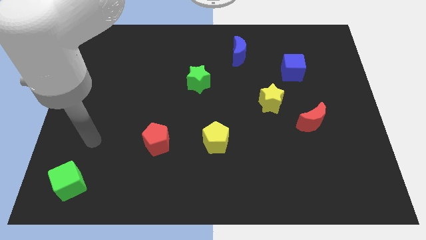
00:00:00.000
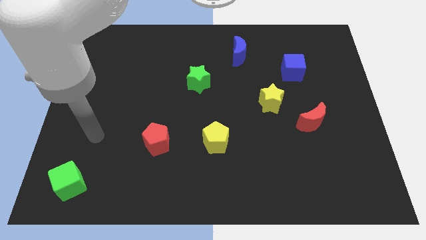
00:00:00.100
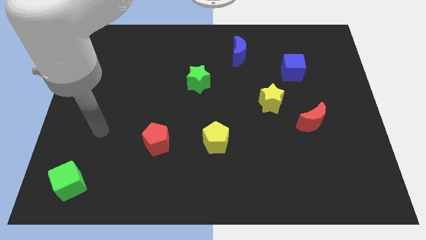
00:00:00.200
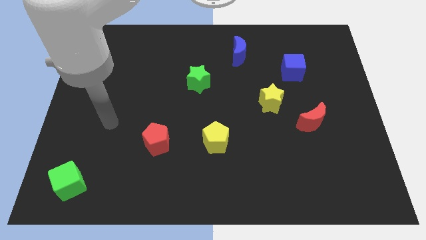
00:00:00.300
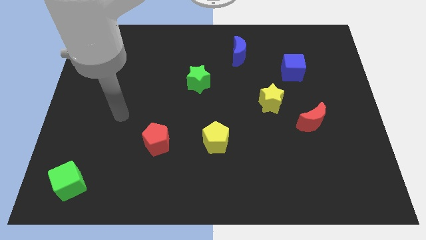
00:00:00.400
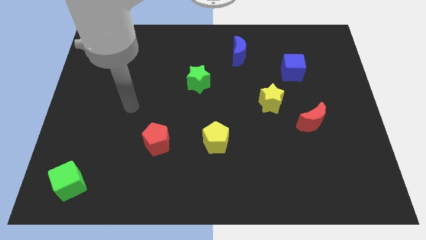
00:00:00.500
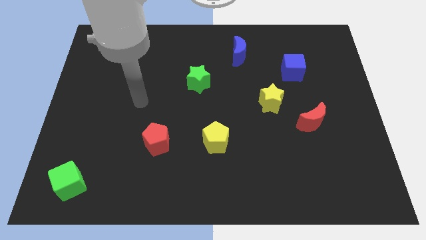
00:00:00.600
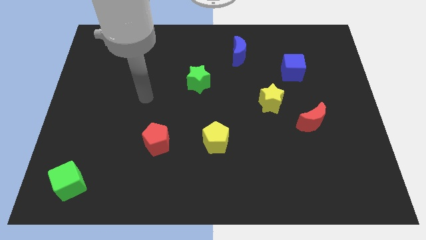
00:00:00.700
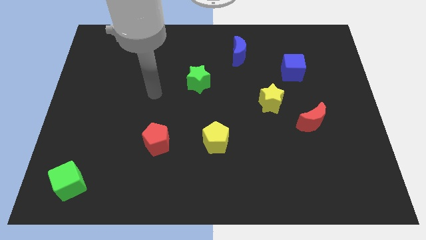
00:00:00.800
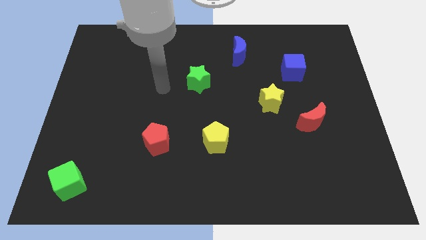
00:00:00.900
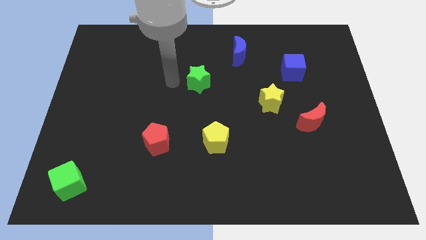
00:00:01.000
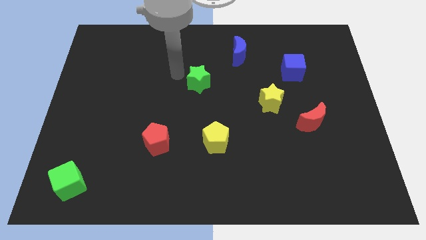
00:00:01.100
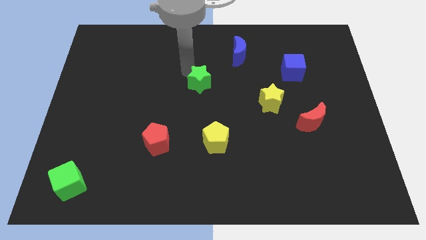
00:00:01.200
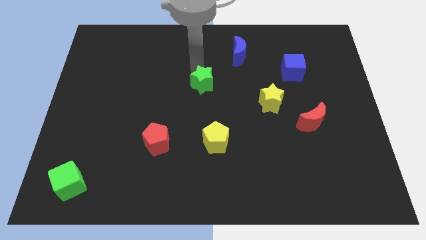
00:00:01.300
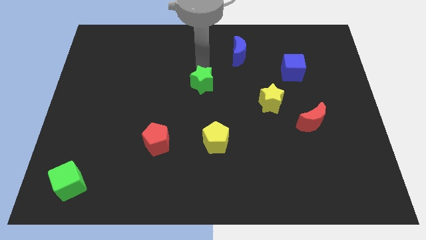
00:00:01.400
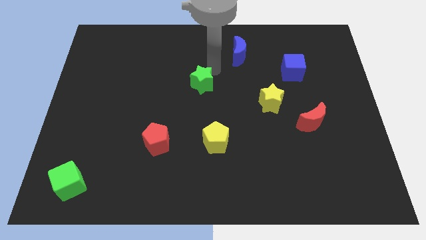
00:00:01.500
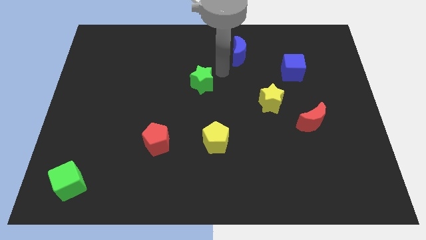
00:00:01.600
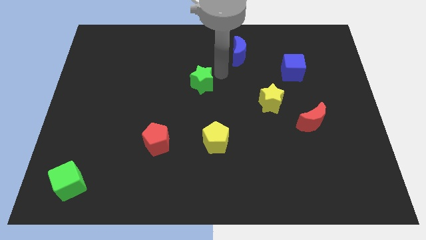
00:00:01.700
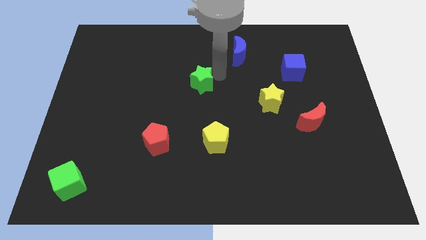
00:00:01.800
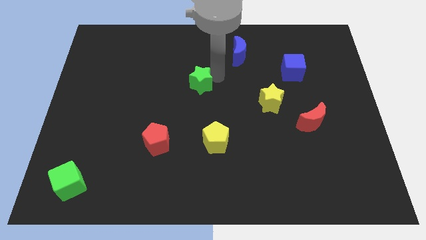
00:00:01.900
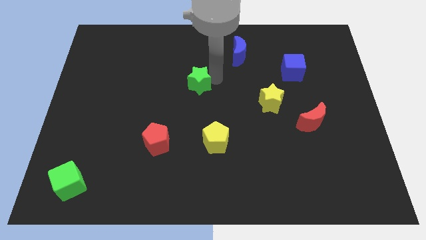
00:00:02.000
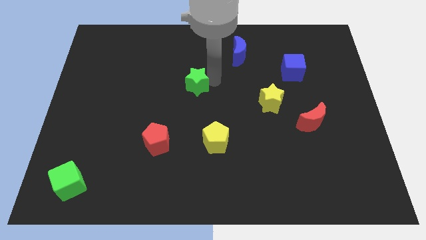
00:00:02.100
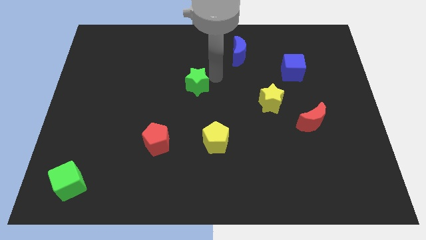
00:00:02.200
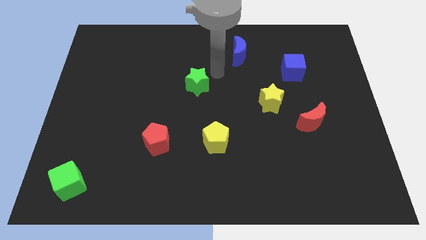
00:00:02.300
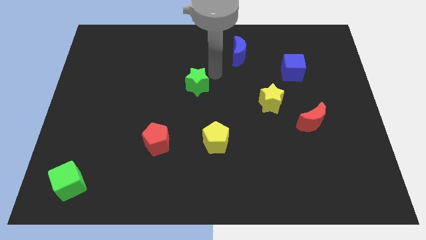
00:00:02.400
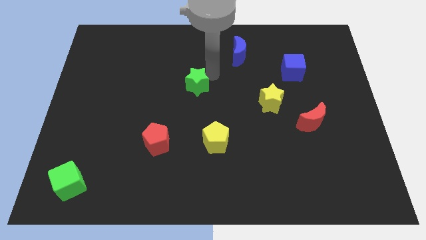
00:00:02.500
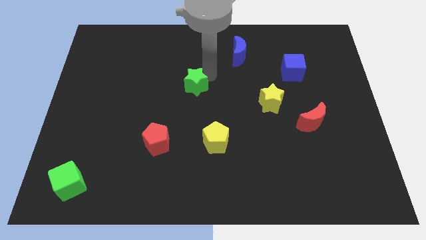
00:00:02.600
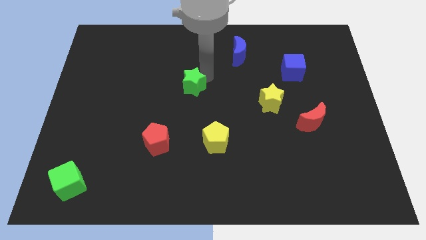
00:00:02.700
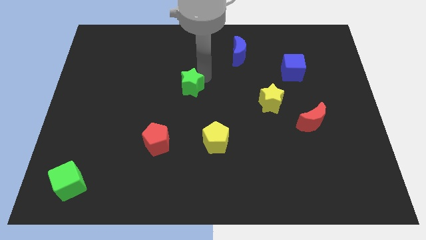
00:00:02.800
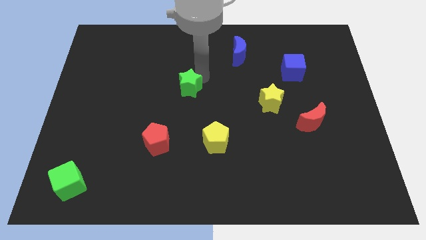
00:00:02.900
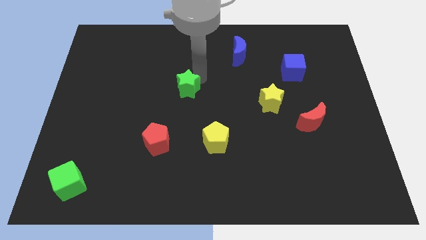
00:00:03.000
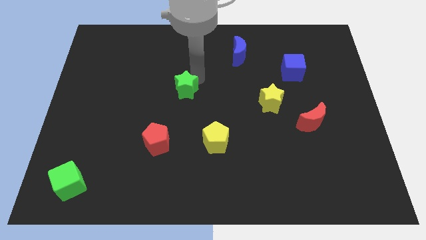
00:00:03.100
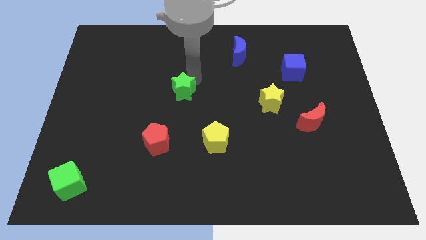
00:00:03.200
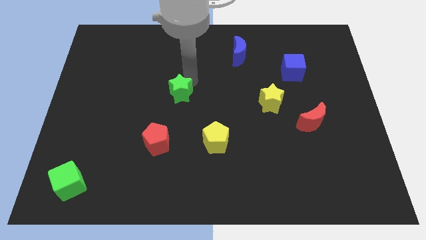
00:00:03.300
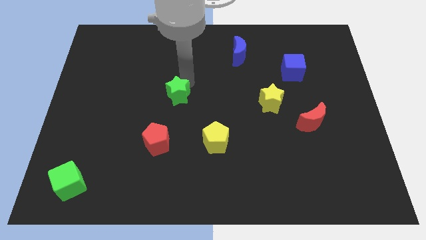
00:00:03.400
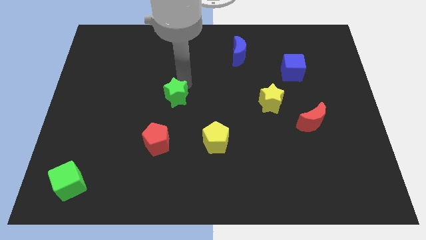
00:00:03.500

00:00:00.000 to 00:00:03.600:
slide the green star diagonally downwards and to the left a little bit

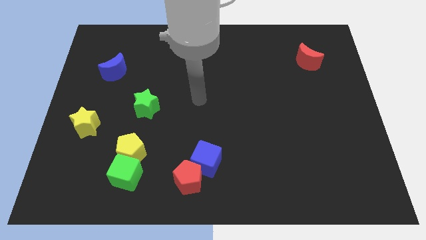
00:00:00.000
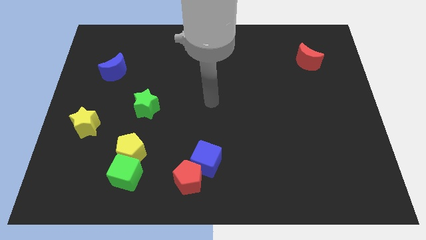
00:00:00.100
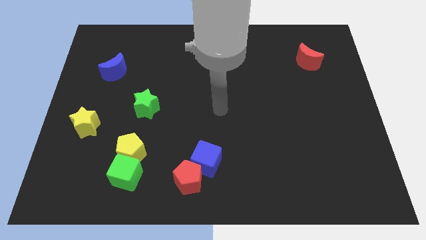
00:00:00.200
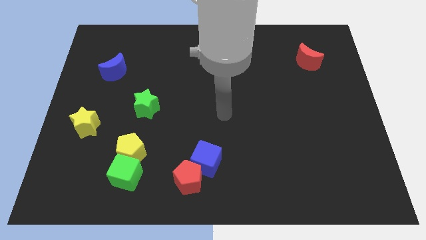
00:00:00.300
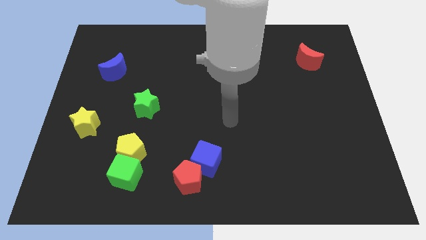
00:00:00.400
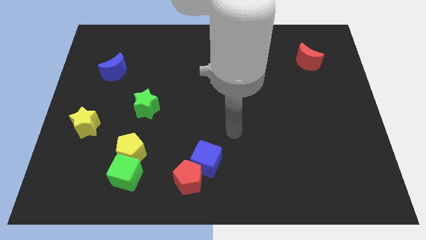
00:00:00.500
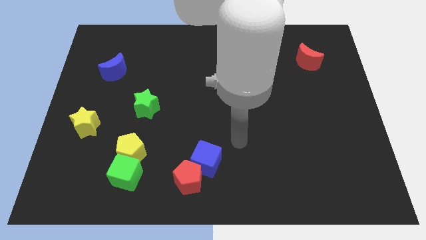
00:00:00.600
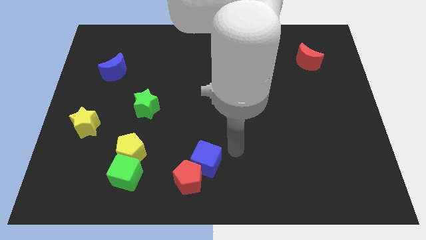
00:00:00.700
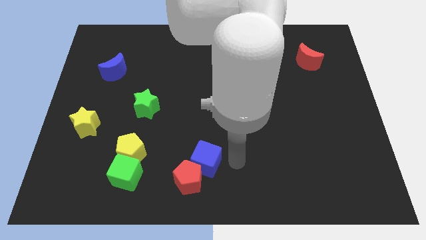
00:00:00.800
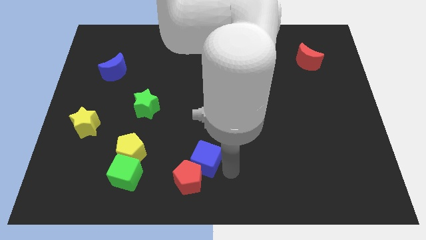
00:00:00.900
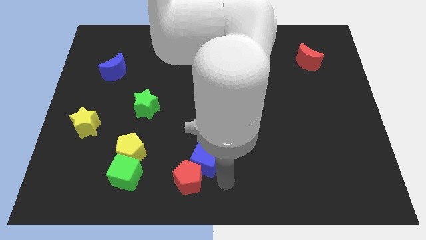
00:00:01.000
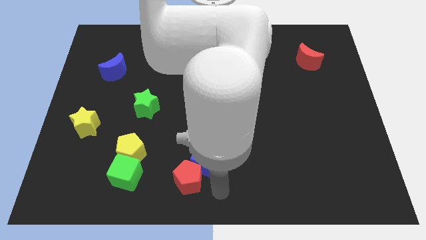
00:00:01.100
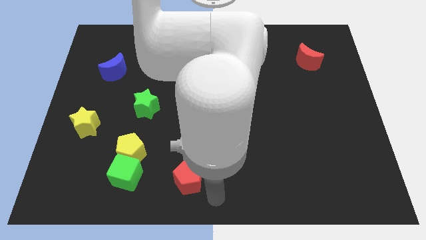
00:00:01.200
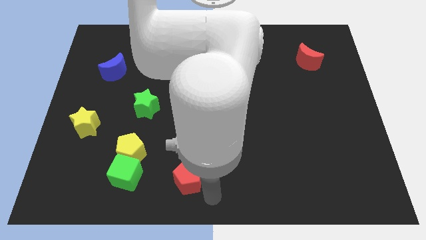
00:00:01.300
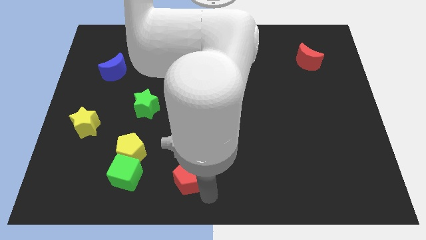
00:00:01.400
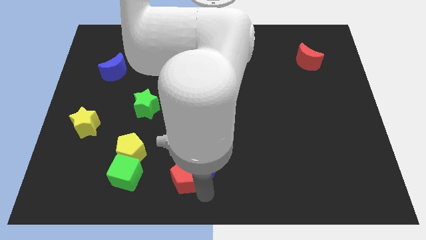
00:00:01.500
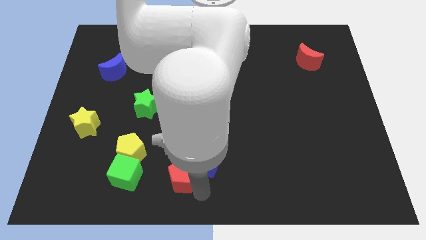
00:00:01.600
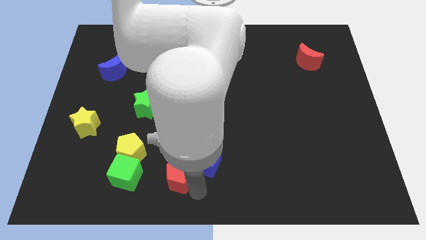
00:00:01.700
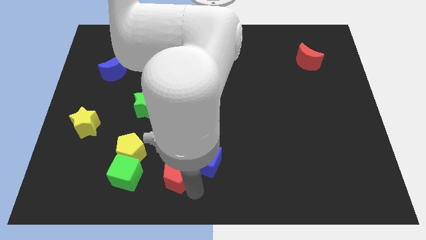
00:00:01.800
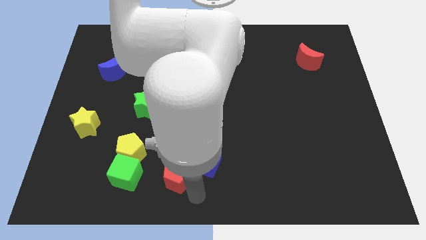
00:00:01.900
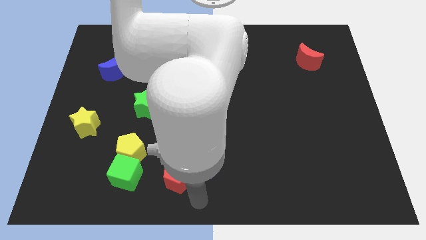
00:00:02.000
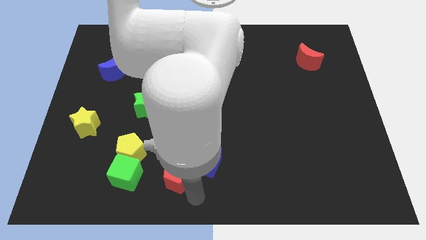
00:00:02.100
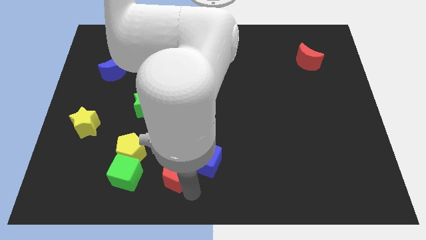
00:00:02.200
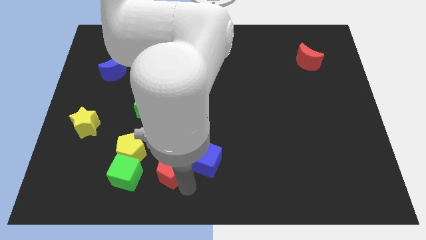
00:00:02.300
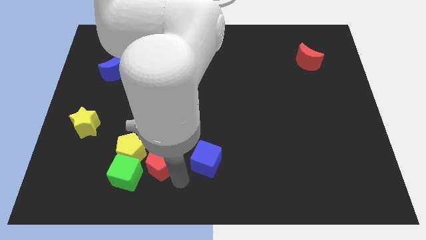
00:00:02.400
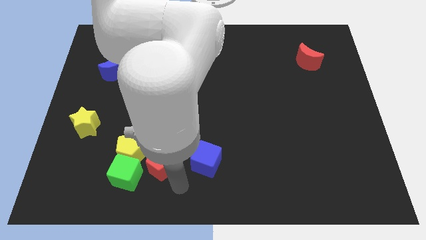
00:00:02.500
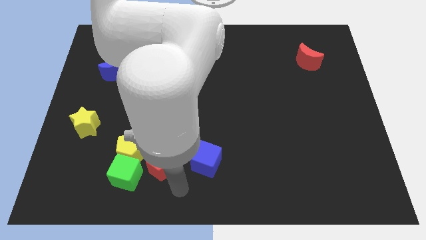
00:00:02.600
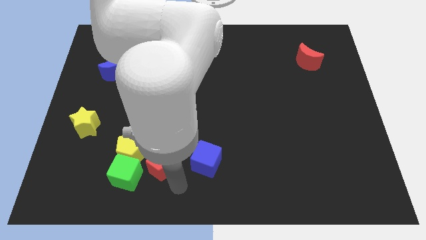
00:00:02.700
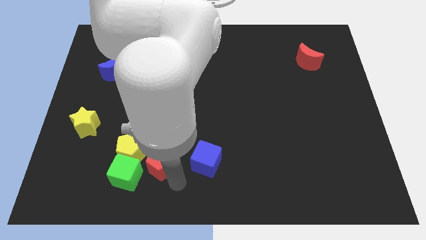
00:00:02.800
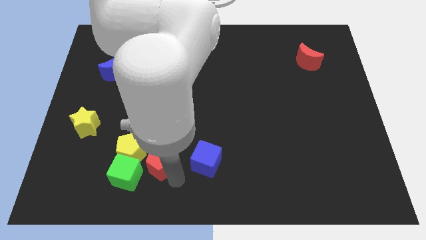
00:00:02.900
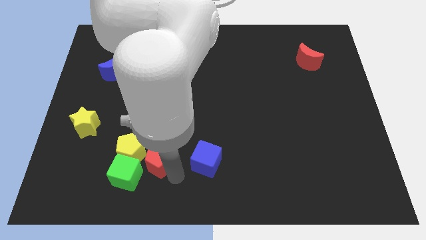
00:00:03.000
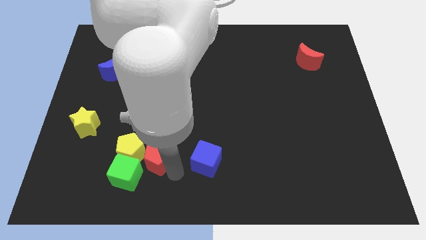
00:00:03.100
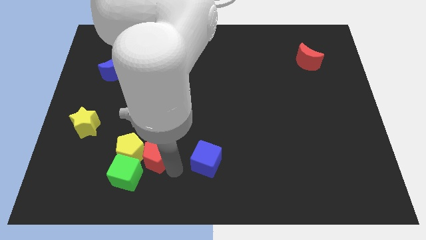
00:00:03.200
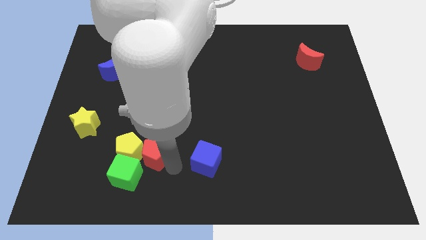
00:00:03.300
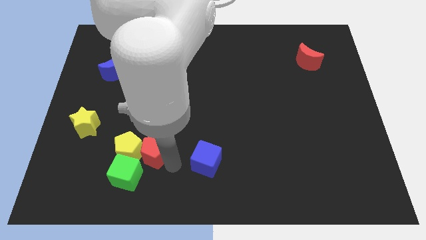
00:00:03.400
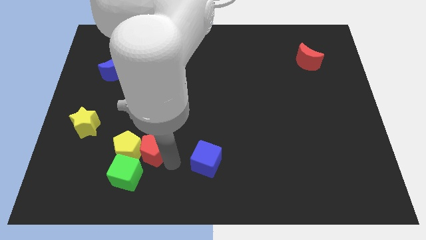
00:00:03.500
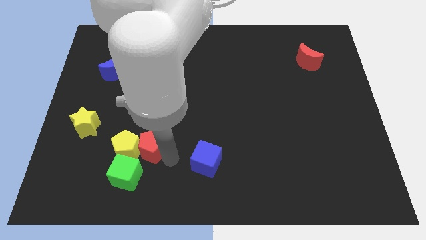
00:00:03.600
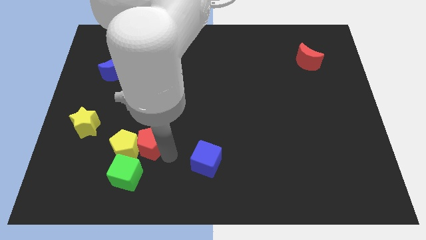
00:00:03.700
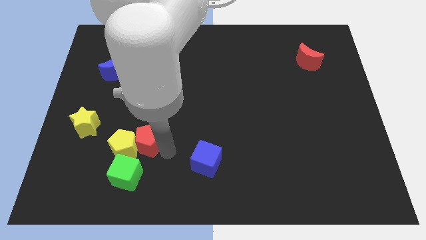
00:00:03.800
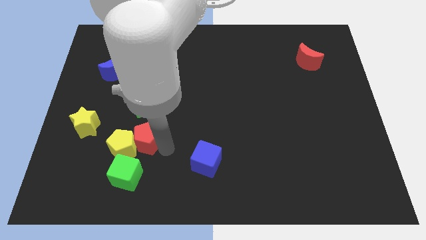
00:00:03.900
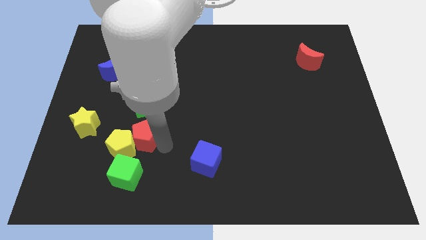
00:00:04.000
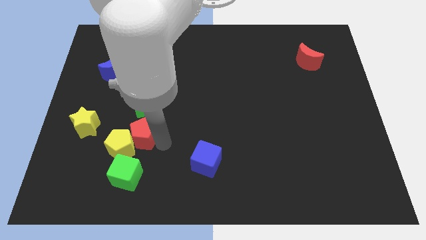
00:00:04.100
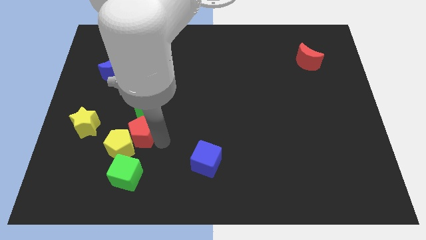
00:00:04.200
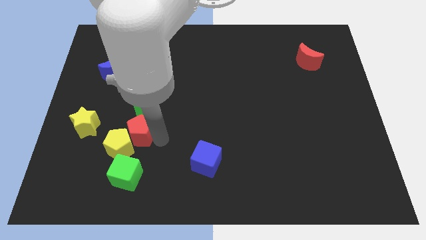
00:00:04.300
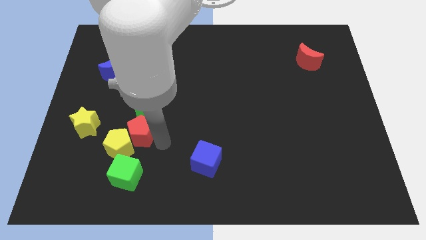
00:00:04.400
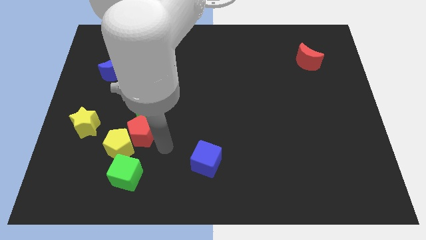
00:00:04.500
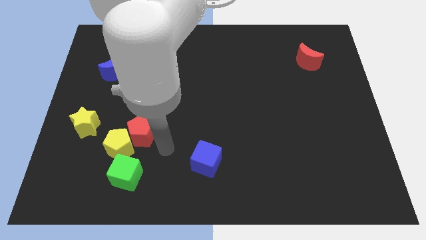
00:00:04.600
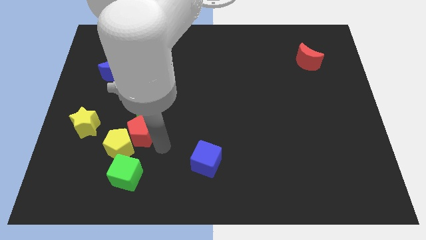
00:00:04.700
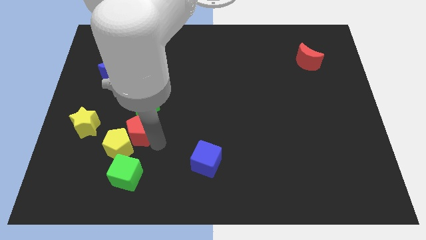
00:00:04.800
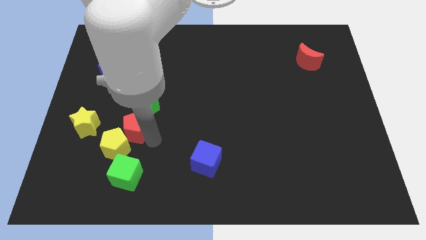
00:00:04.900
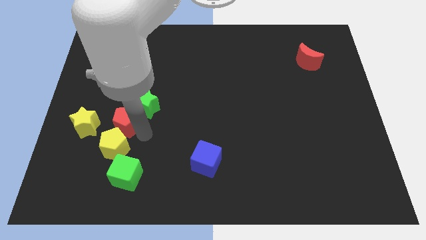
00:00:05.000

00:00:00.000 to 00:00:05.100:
slide the red pentagon upwards and to the left diagonally
